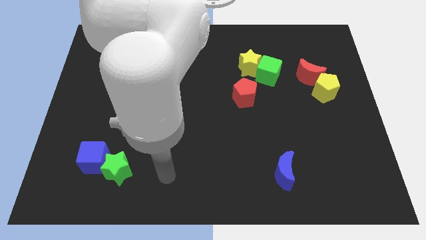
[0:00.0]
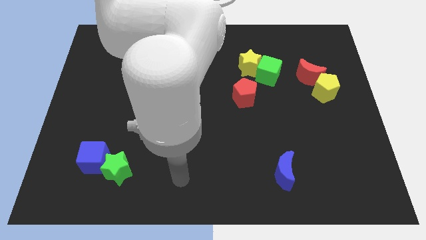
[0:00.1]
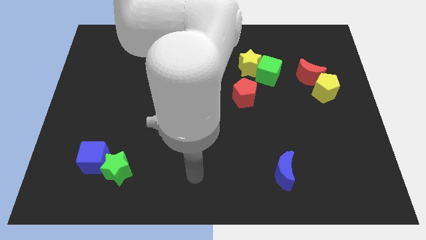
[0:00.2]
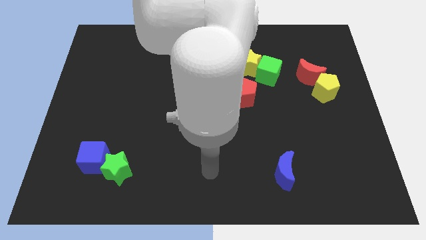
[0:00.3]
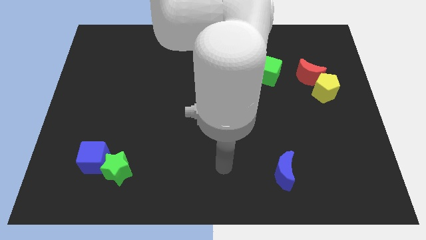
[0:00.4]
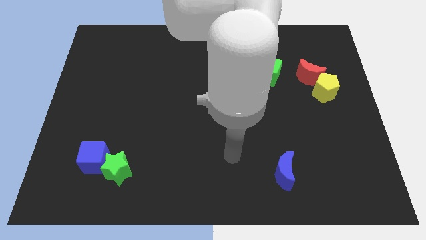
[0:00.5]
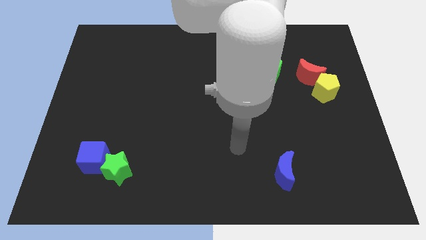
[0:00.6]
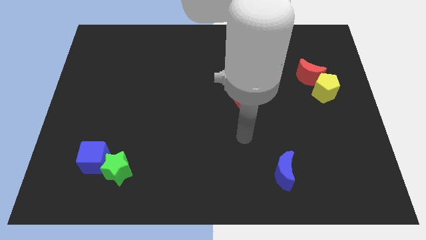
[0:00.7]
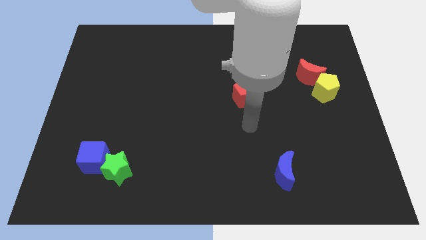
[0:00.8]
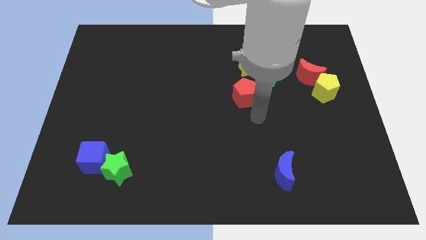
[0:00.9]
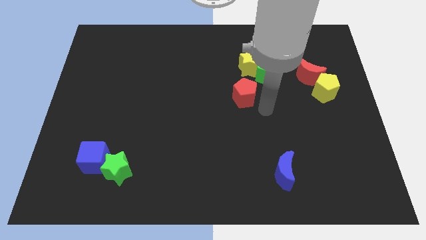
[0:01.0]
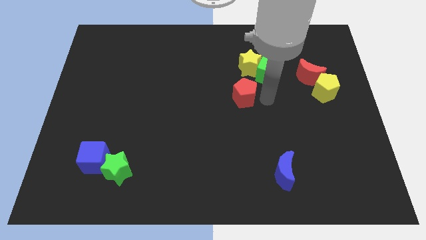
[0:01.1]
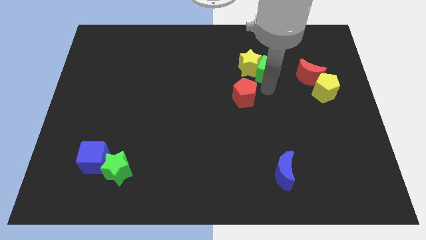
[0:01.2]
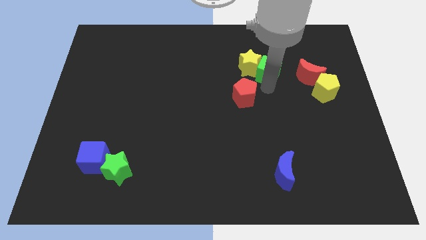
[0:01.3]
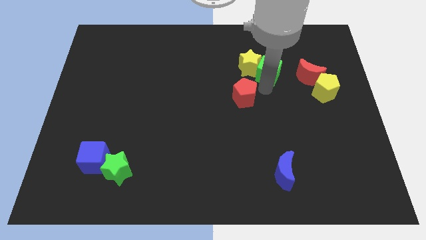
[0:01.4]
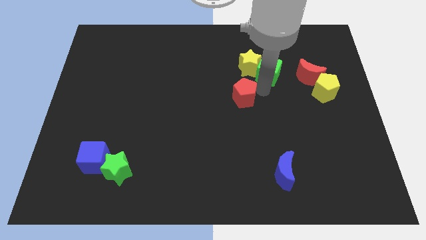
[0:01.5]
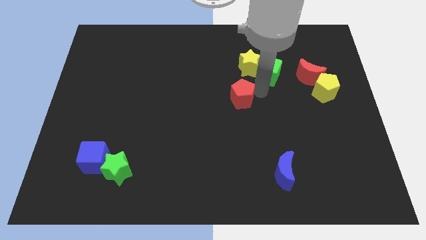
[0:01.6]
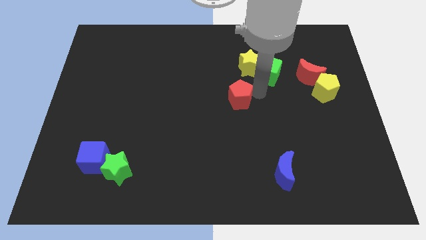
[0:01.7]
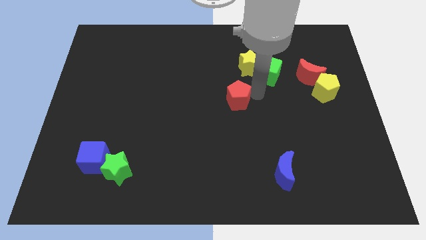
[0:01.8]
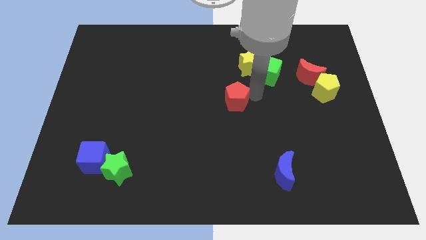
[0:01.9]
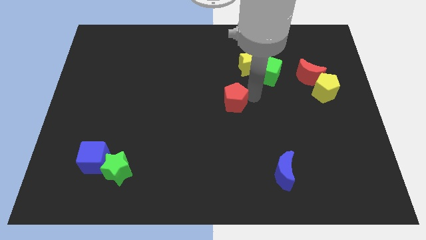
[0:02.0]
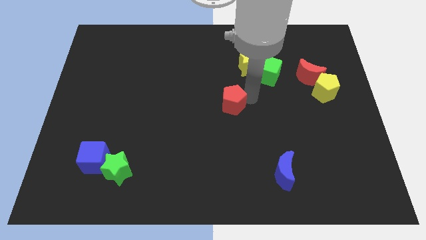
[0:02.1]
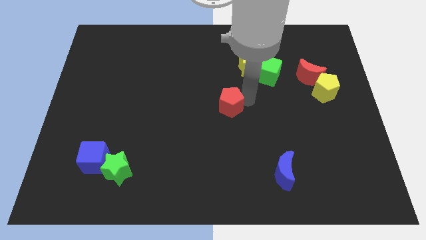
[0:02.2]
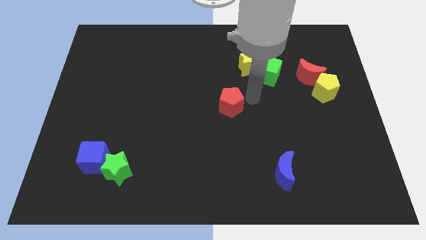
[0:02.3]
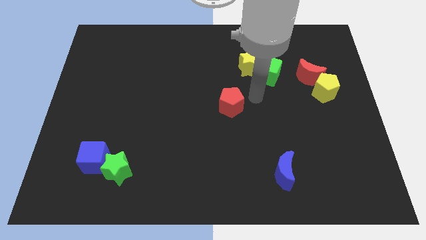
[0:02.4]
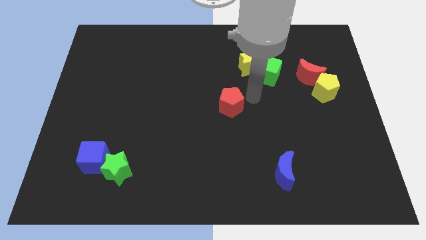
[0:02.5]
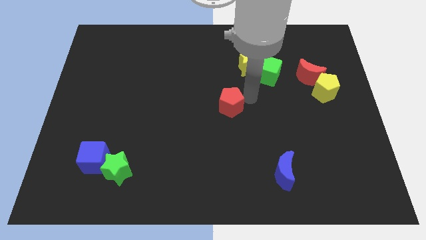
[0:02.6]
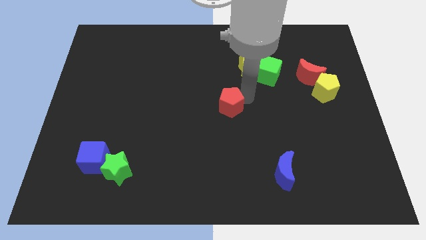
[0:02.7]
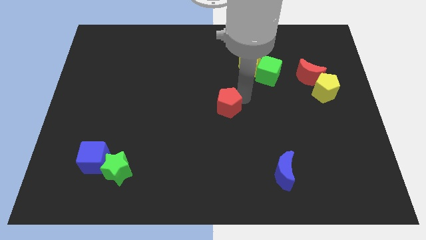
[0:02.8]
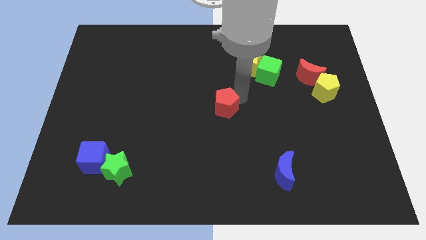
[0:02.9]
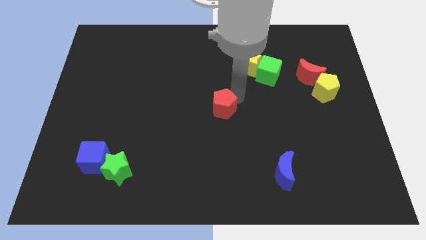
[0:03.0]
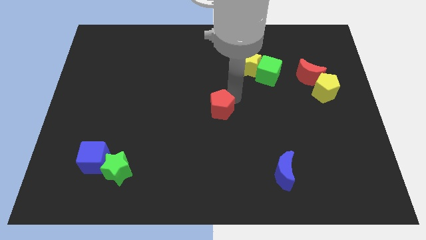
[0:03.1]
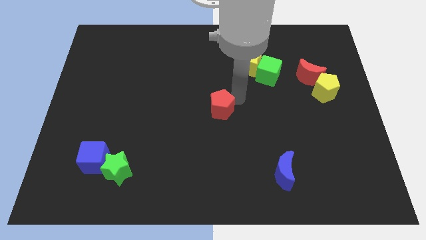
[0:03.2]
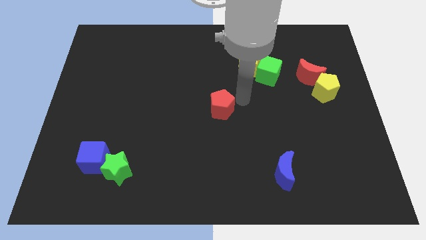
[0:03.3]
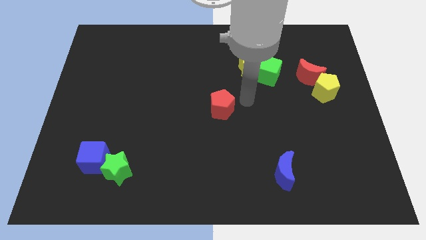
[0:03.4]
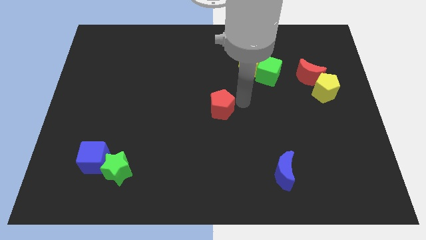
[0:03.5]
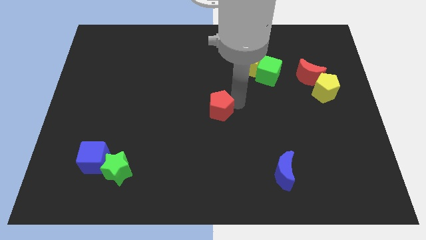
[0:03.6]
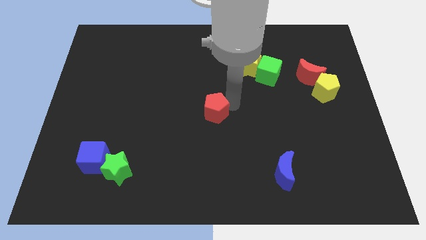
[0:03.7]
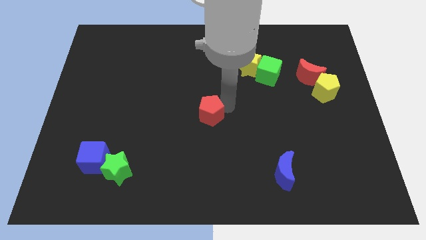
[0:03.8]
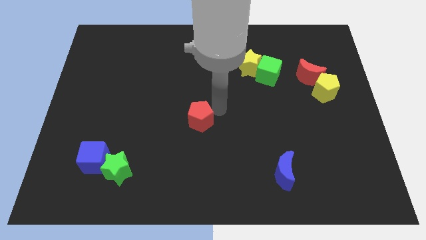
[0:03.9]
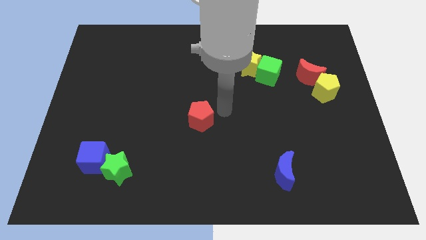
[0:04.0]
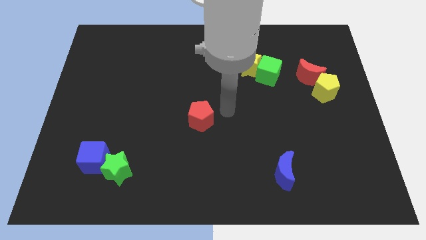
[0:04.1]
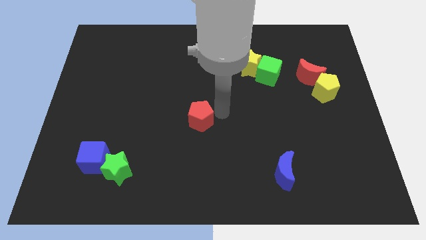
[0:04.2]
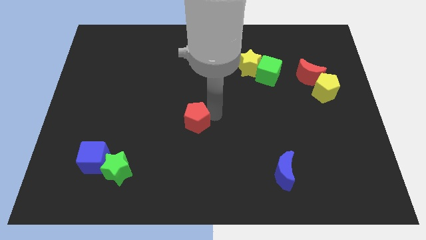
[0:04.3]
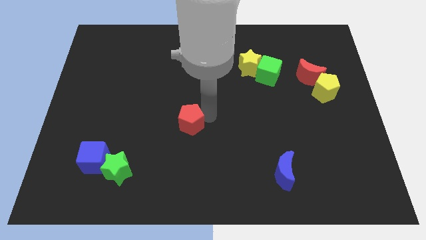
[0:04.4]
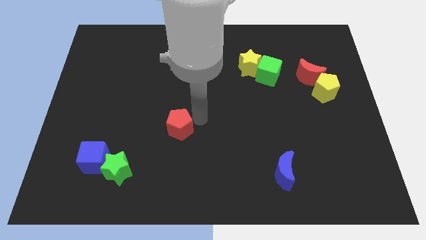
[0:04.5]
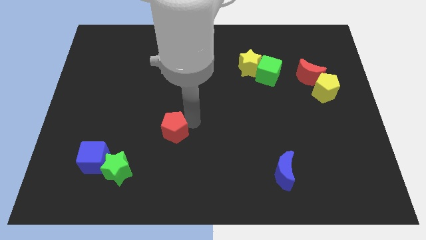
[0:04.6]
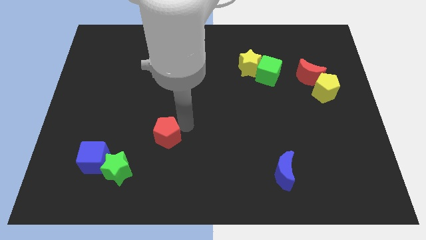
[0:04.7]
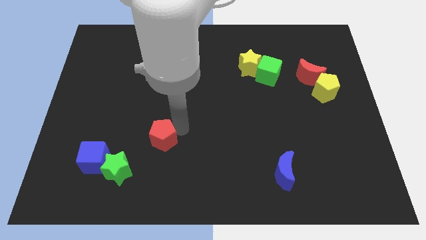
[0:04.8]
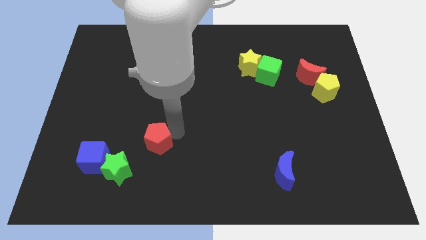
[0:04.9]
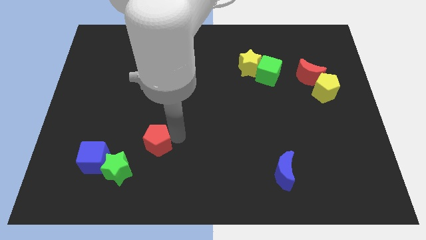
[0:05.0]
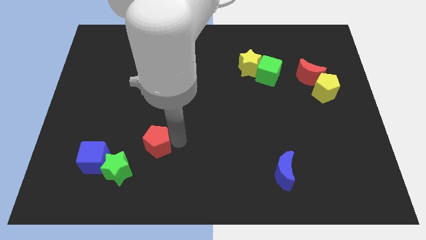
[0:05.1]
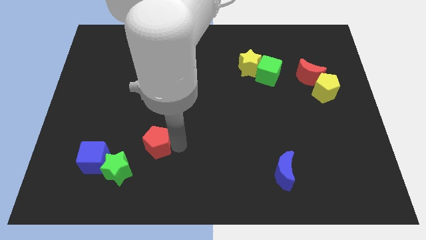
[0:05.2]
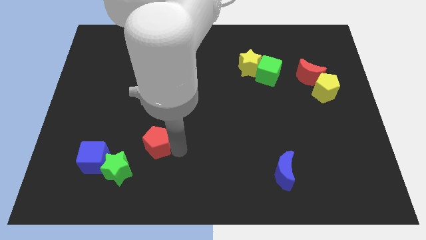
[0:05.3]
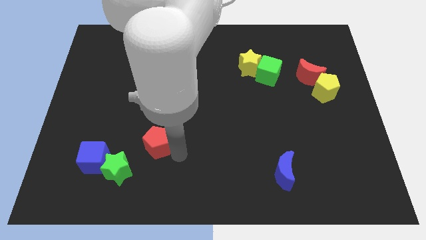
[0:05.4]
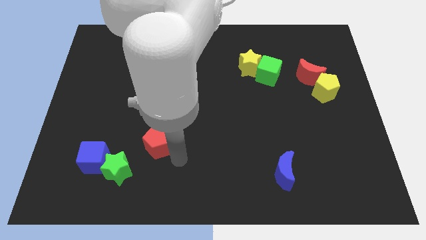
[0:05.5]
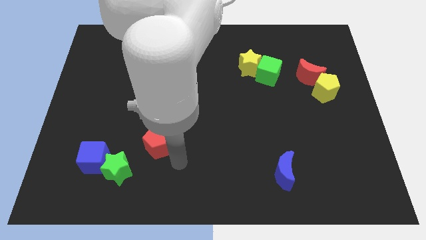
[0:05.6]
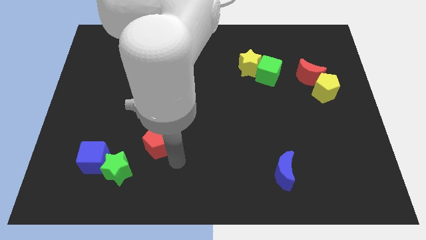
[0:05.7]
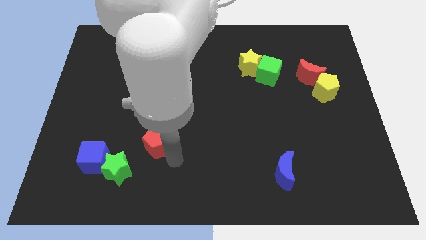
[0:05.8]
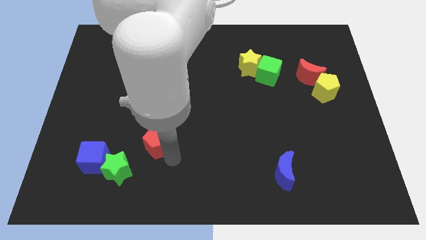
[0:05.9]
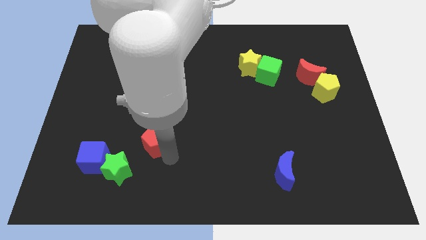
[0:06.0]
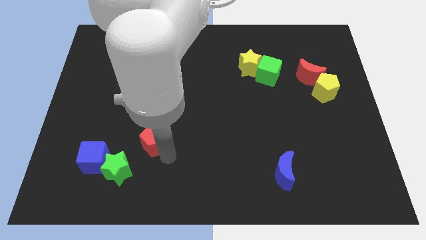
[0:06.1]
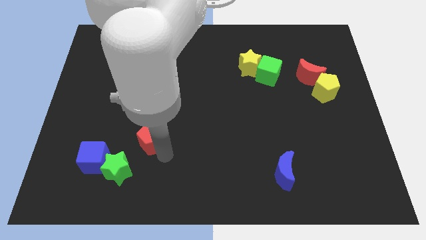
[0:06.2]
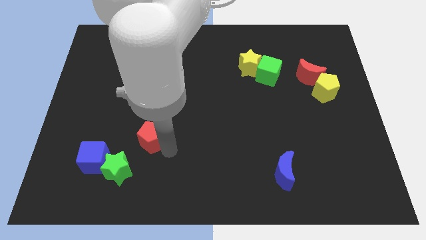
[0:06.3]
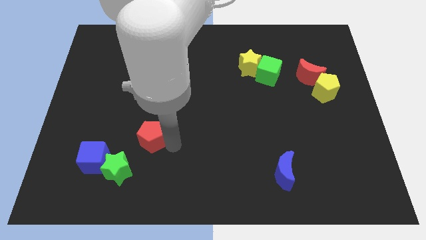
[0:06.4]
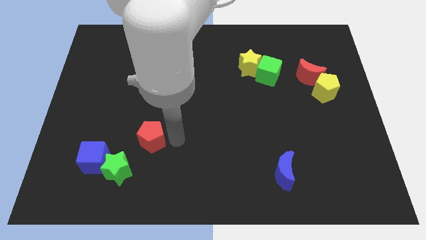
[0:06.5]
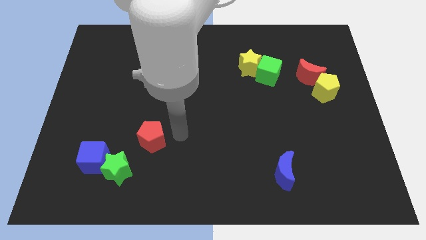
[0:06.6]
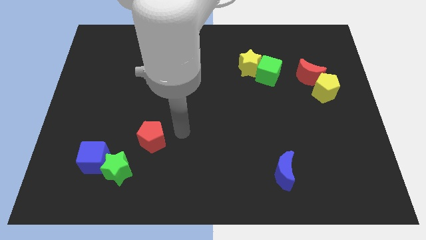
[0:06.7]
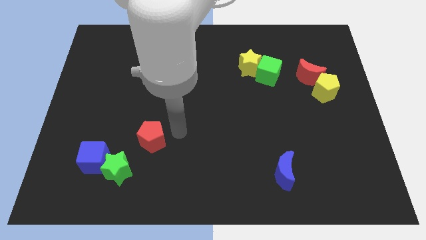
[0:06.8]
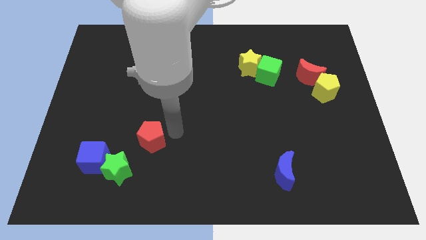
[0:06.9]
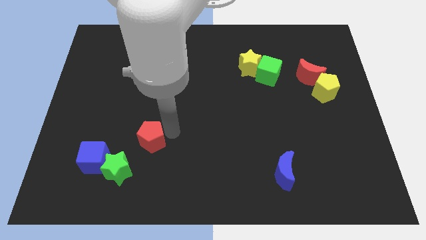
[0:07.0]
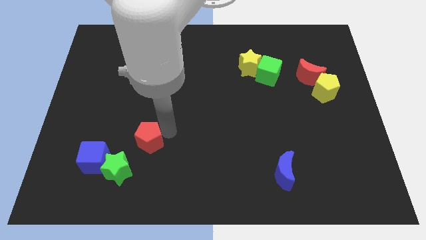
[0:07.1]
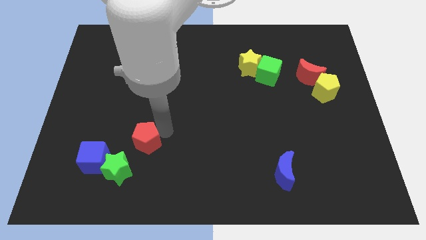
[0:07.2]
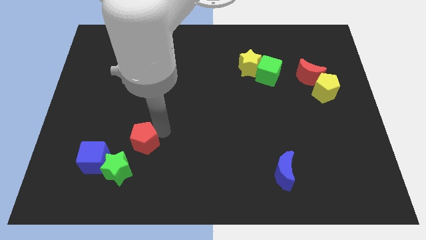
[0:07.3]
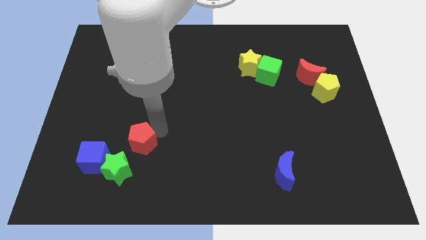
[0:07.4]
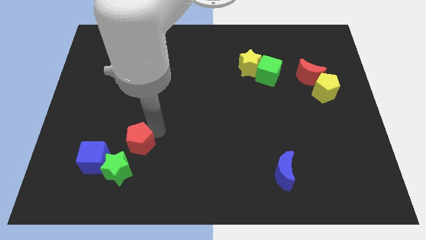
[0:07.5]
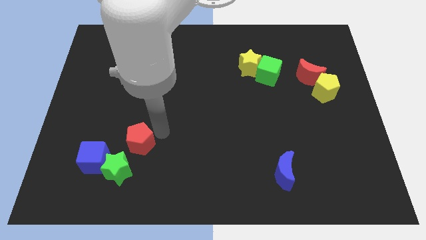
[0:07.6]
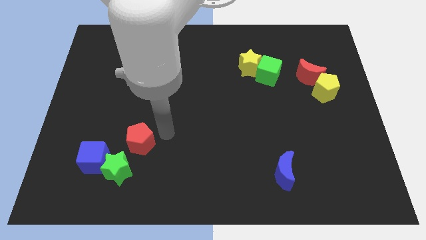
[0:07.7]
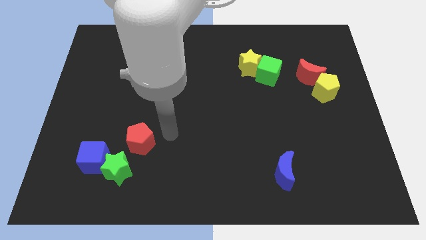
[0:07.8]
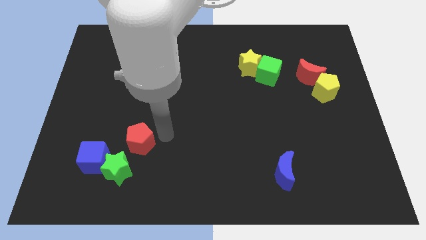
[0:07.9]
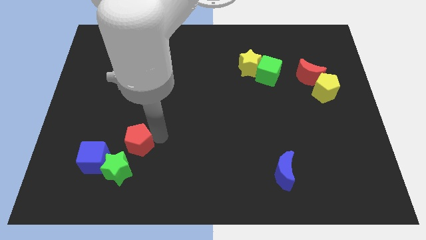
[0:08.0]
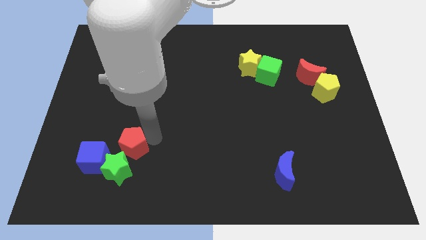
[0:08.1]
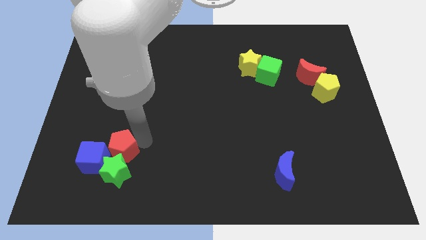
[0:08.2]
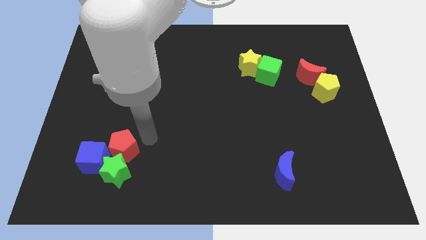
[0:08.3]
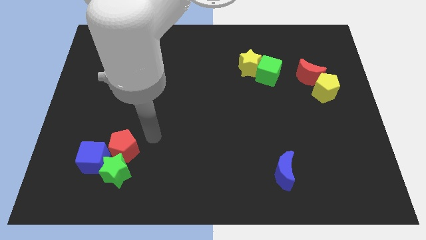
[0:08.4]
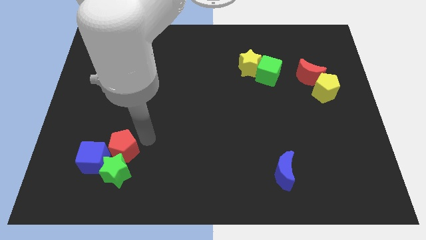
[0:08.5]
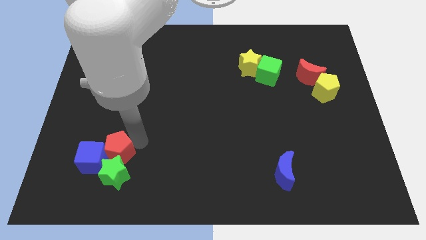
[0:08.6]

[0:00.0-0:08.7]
slide the red pentagon to the blue cube
